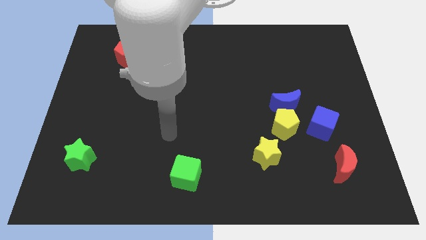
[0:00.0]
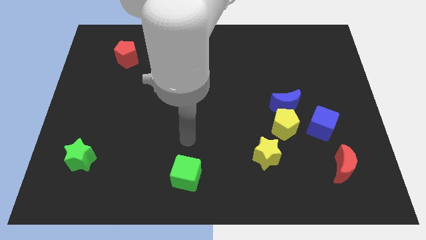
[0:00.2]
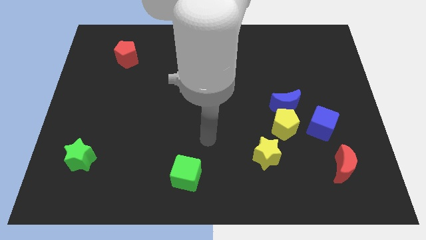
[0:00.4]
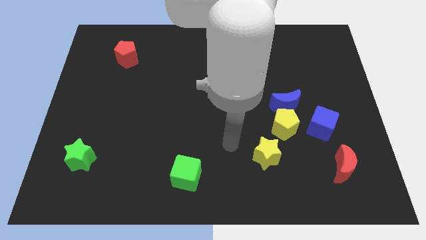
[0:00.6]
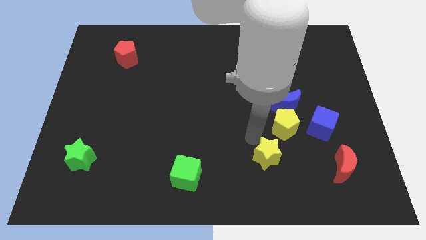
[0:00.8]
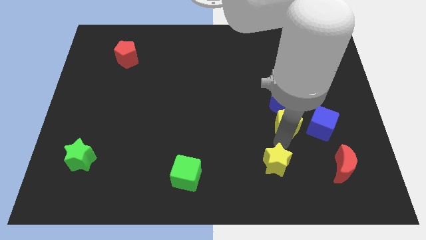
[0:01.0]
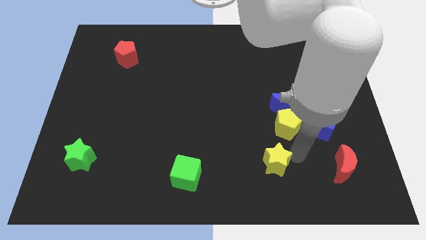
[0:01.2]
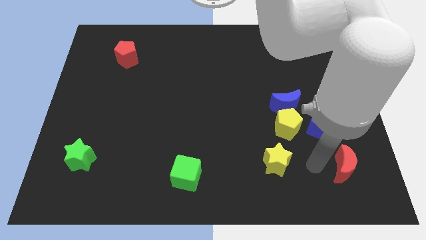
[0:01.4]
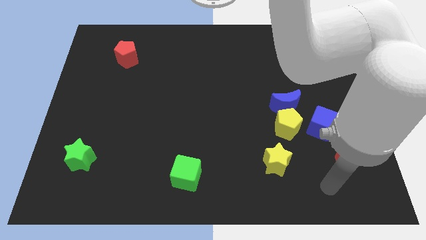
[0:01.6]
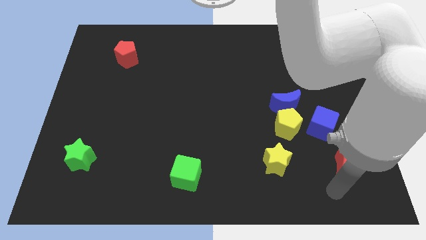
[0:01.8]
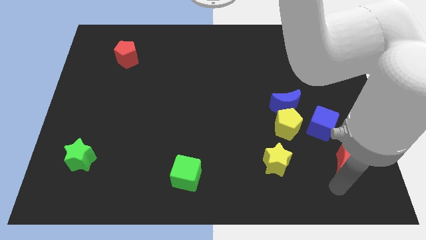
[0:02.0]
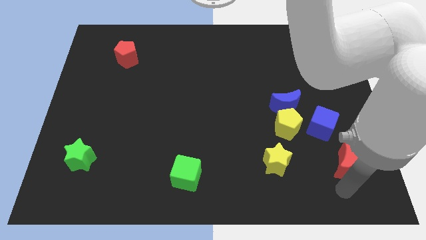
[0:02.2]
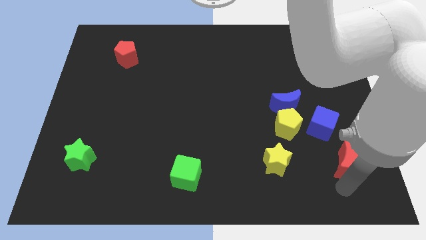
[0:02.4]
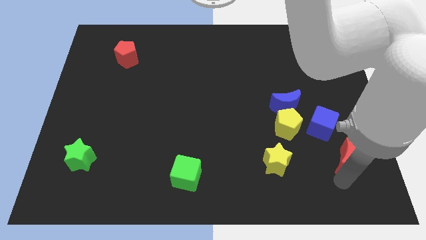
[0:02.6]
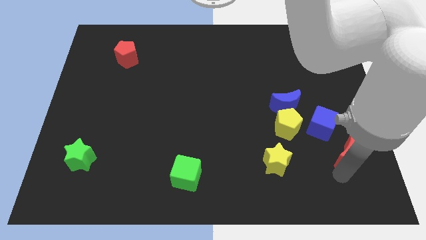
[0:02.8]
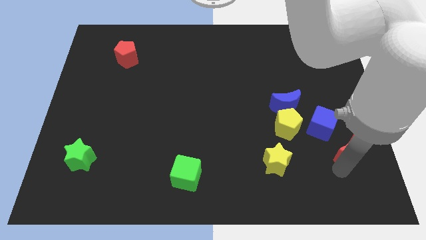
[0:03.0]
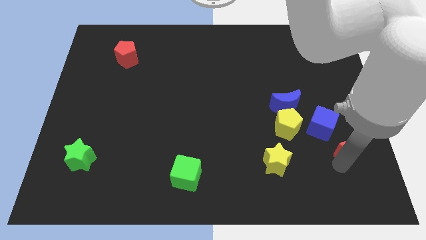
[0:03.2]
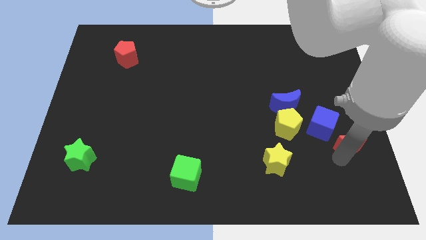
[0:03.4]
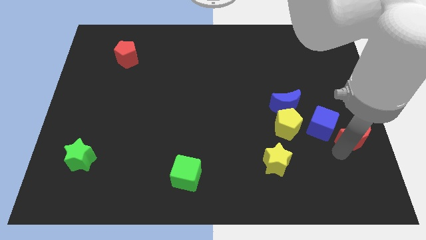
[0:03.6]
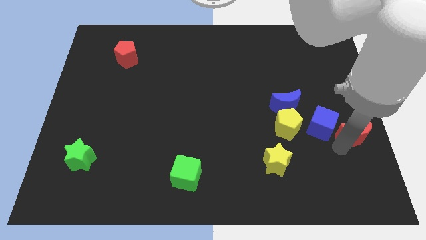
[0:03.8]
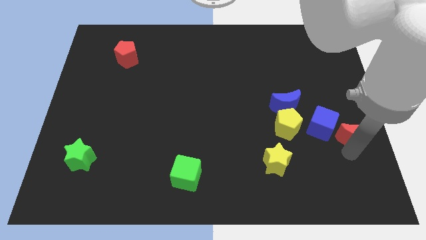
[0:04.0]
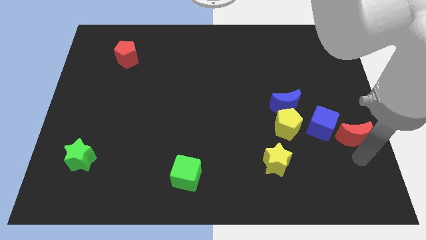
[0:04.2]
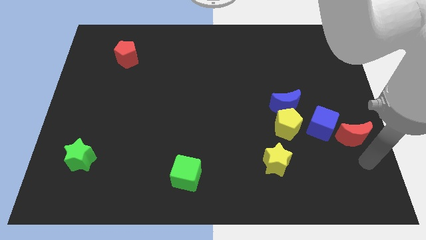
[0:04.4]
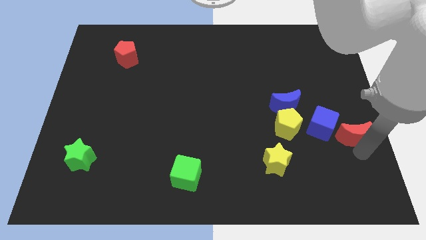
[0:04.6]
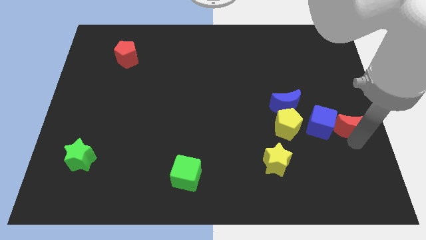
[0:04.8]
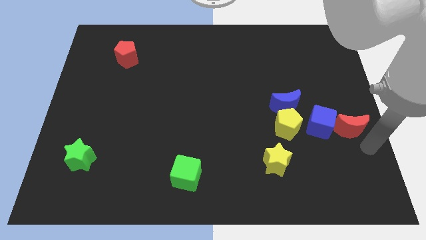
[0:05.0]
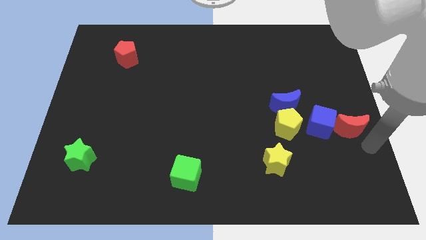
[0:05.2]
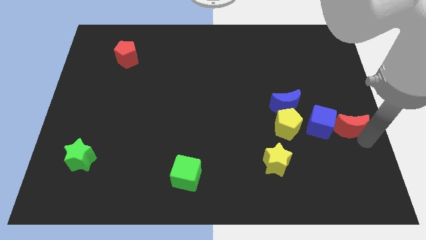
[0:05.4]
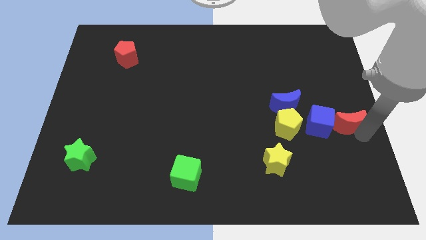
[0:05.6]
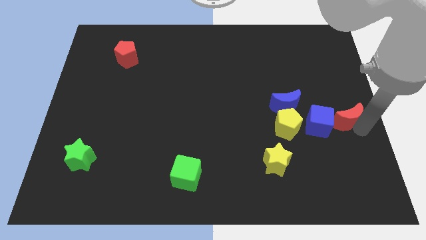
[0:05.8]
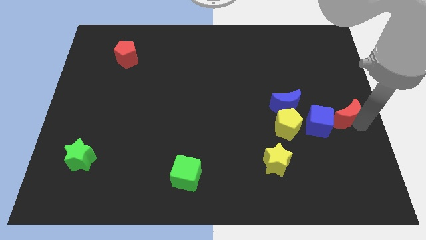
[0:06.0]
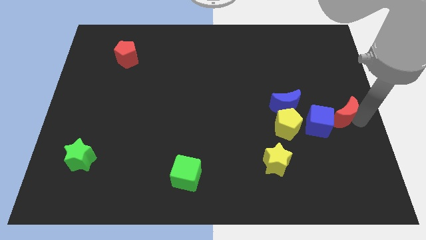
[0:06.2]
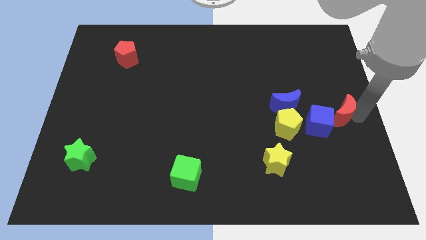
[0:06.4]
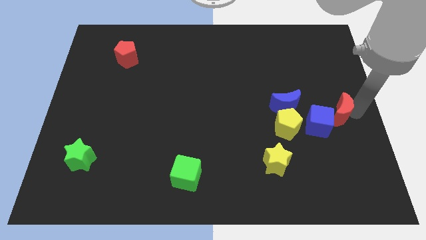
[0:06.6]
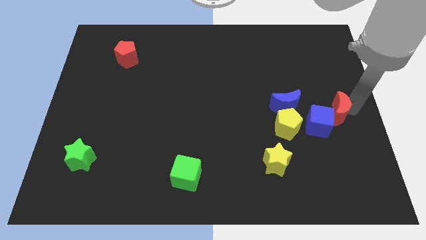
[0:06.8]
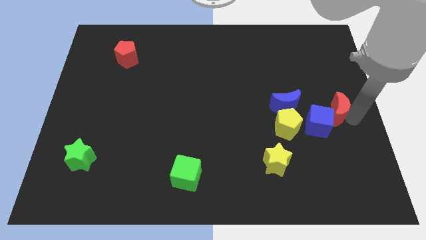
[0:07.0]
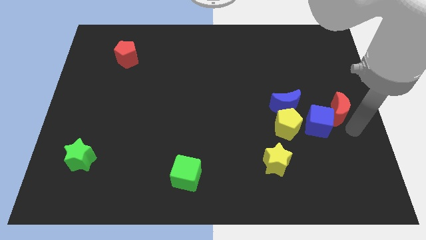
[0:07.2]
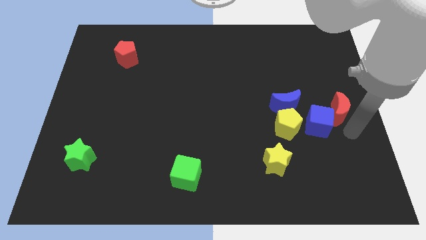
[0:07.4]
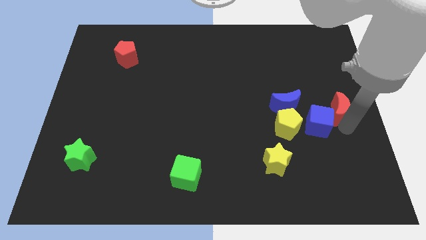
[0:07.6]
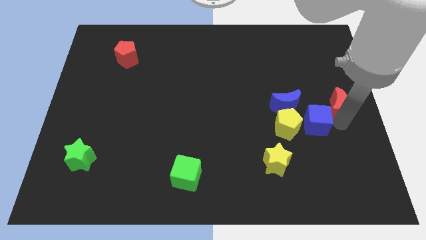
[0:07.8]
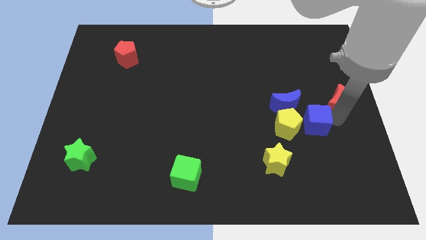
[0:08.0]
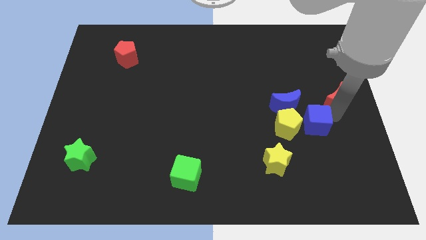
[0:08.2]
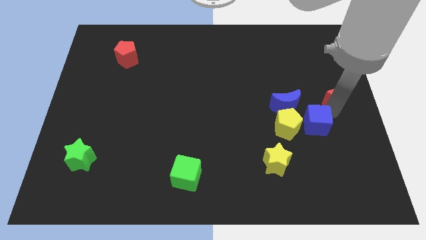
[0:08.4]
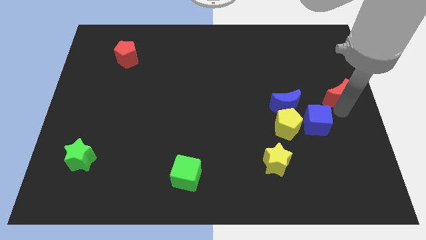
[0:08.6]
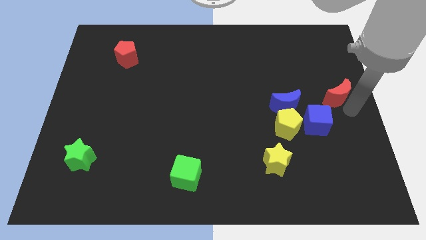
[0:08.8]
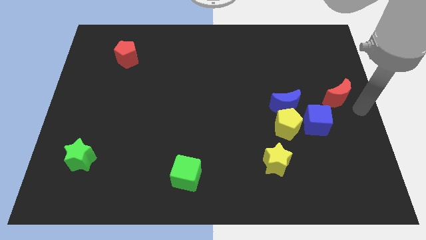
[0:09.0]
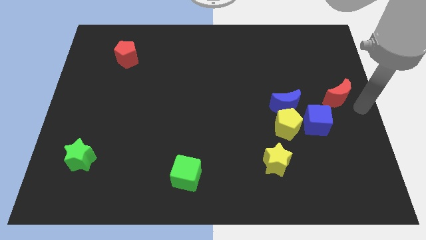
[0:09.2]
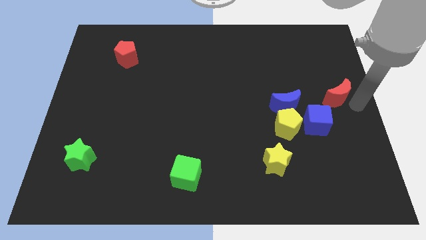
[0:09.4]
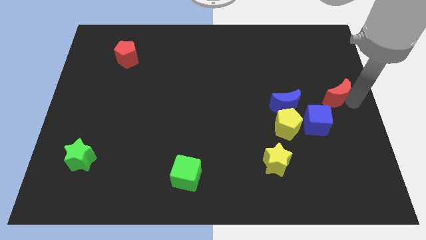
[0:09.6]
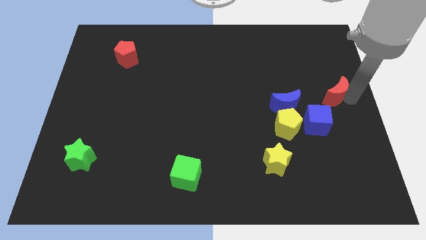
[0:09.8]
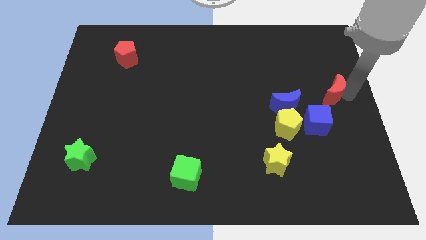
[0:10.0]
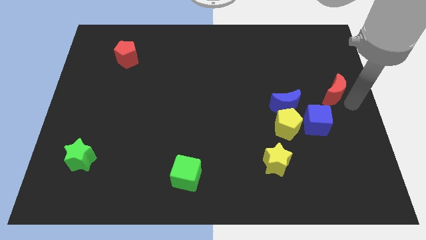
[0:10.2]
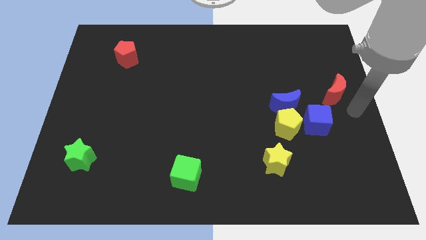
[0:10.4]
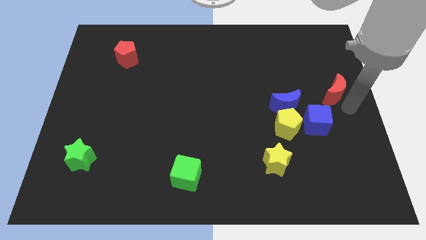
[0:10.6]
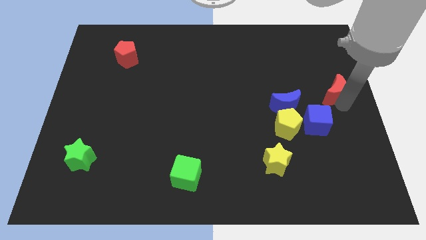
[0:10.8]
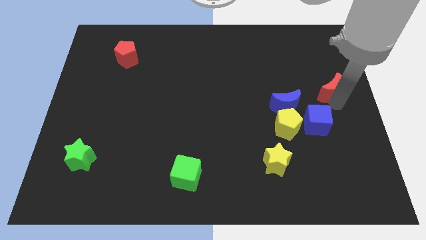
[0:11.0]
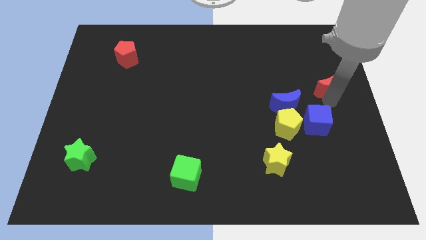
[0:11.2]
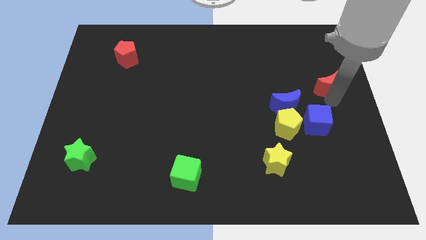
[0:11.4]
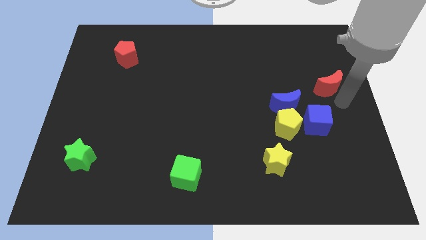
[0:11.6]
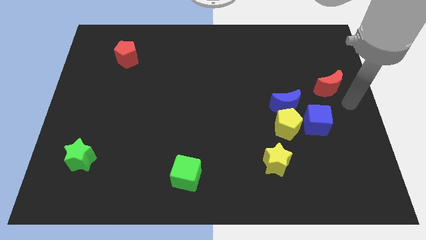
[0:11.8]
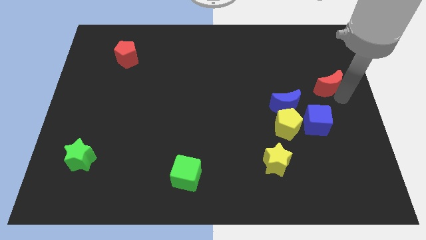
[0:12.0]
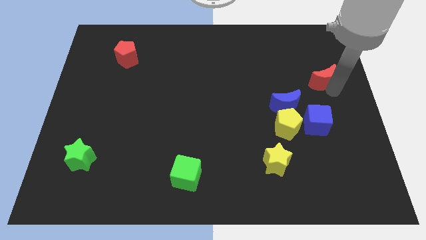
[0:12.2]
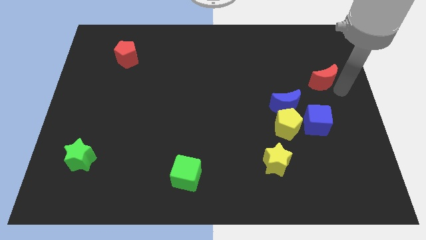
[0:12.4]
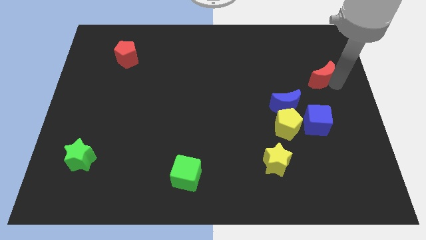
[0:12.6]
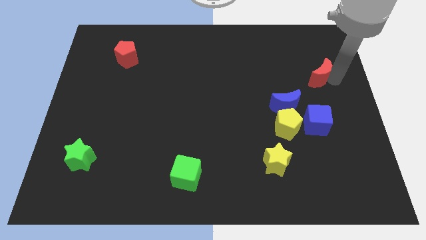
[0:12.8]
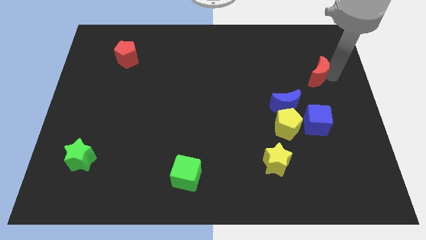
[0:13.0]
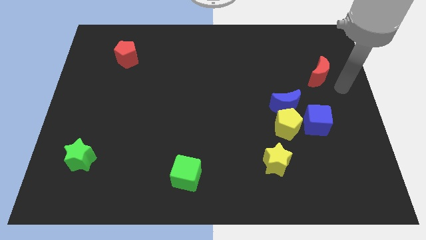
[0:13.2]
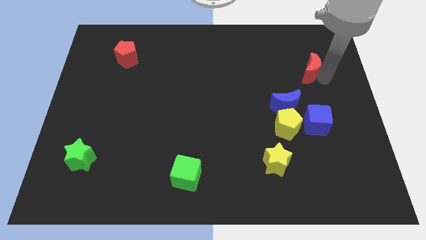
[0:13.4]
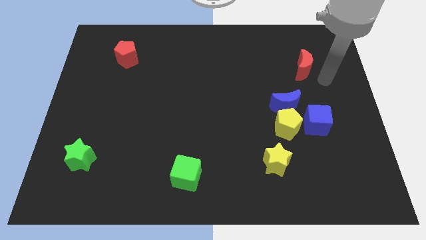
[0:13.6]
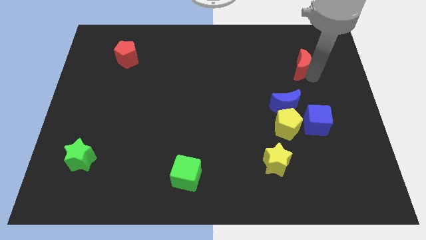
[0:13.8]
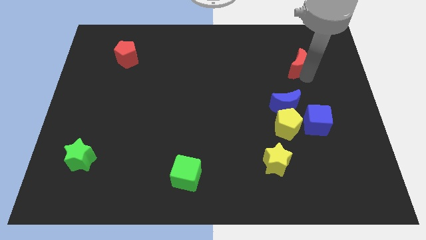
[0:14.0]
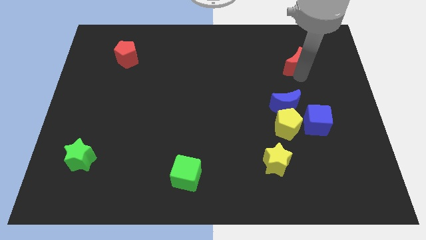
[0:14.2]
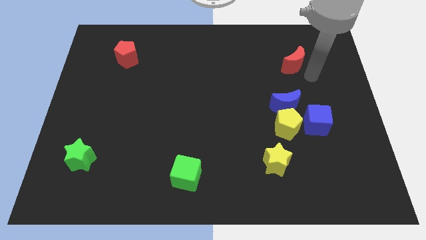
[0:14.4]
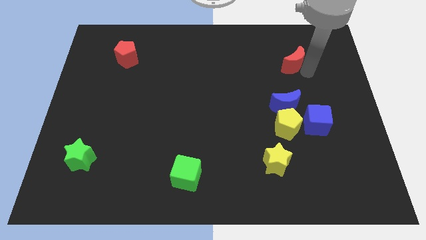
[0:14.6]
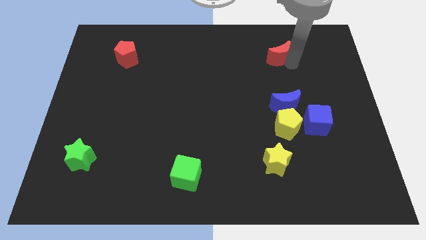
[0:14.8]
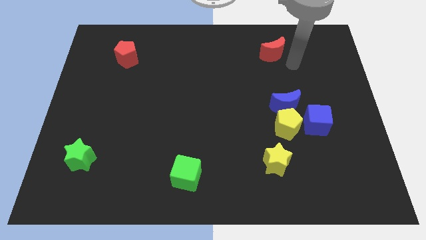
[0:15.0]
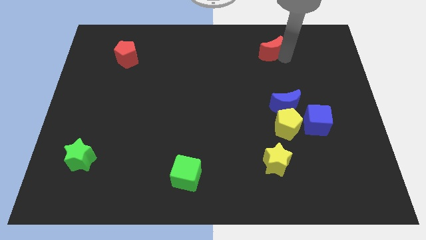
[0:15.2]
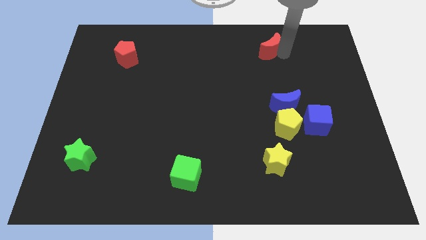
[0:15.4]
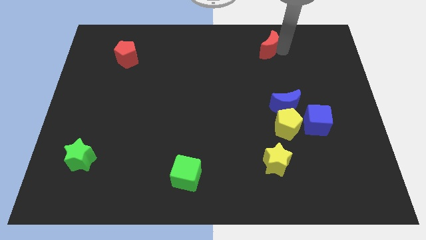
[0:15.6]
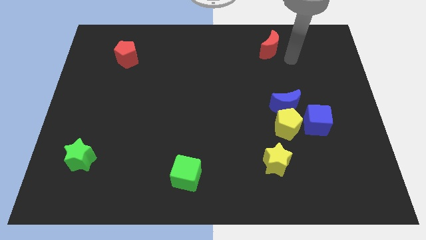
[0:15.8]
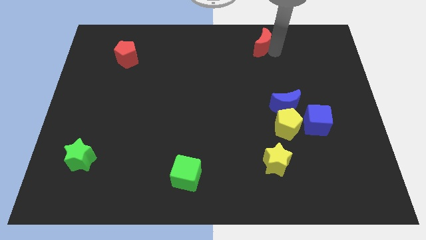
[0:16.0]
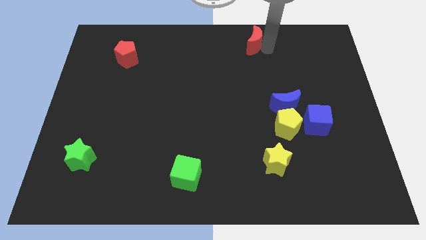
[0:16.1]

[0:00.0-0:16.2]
slide the red moon to the top side
